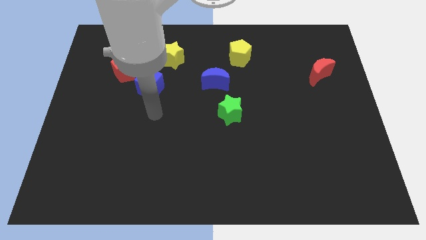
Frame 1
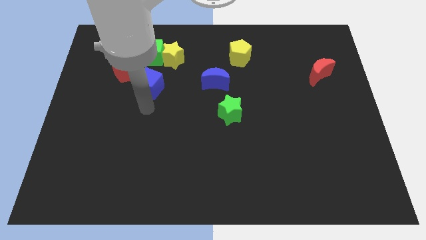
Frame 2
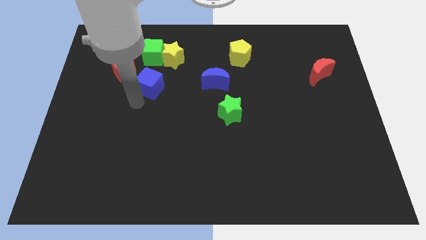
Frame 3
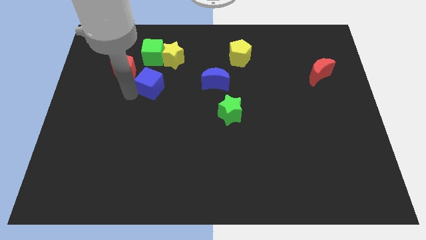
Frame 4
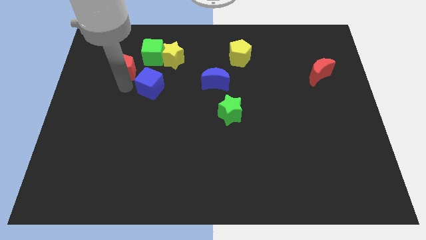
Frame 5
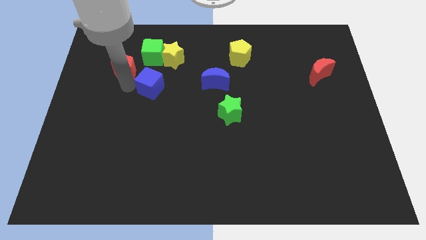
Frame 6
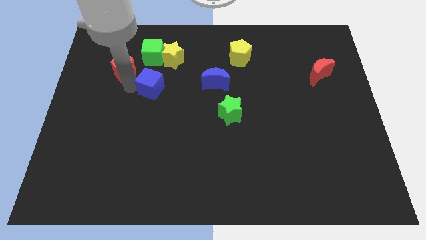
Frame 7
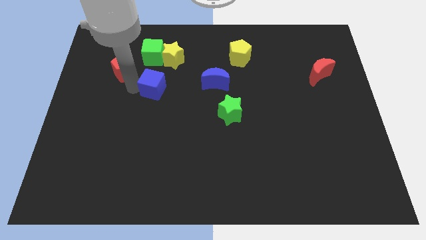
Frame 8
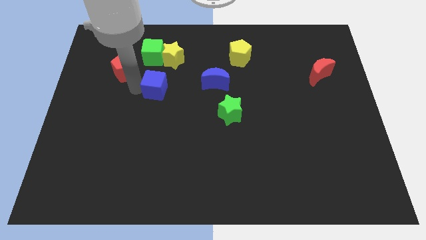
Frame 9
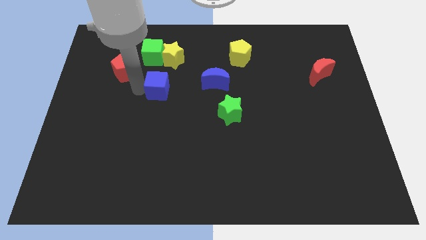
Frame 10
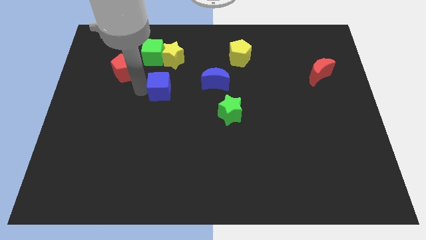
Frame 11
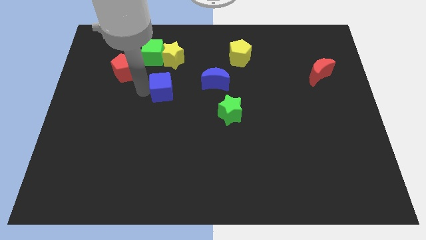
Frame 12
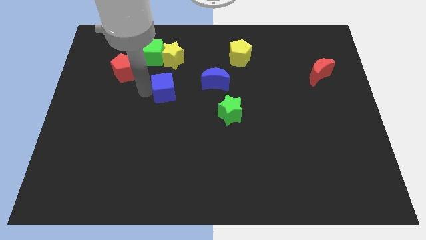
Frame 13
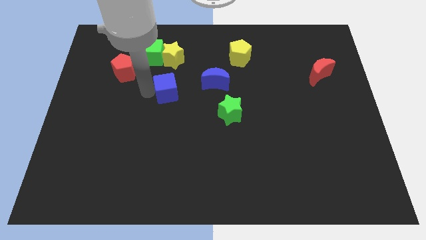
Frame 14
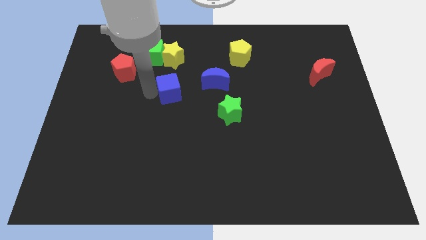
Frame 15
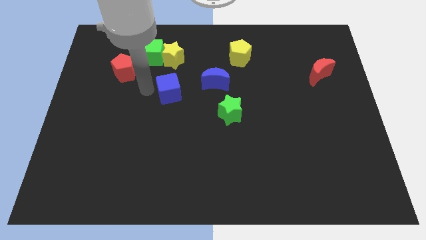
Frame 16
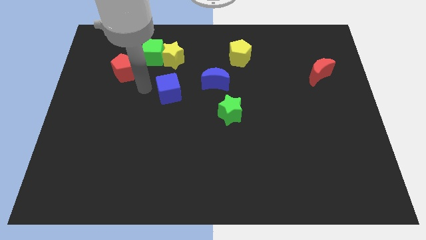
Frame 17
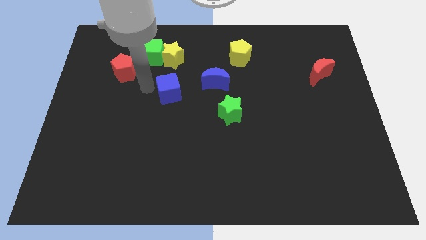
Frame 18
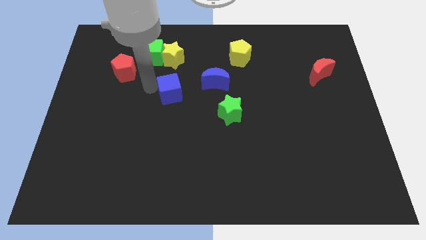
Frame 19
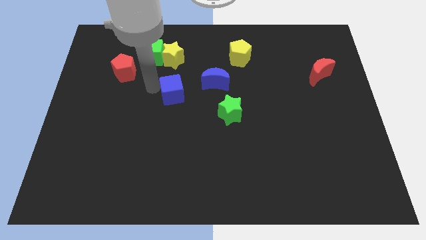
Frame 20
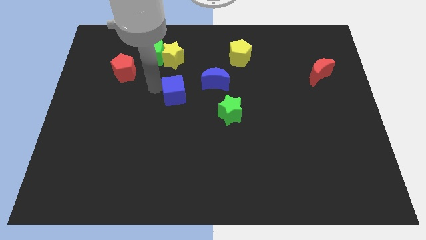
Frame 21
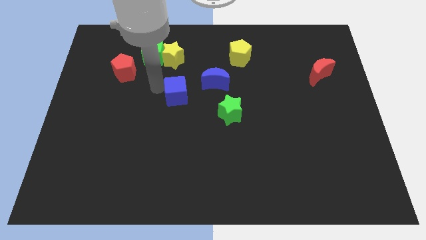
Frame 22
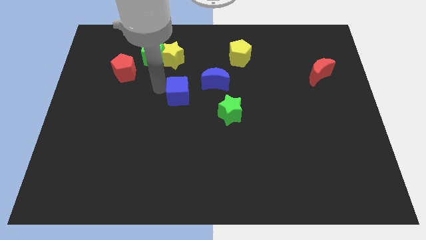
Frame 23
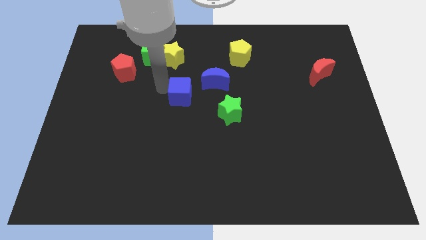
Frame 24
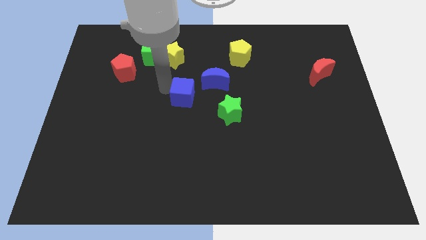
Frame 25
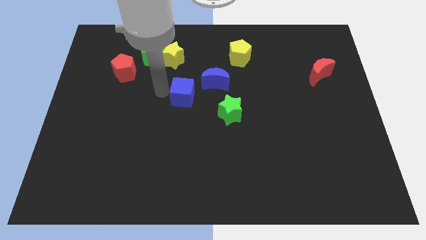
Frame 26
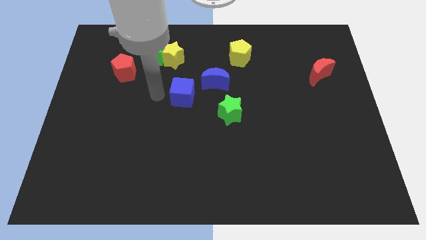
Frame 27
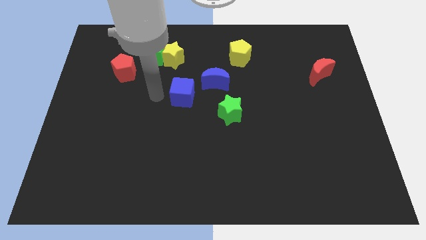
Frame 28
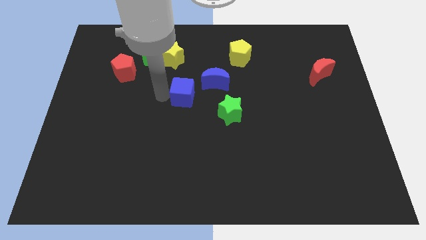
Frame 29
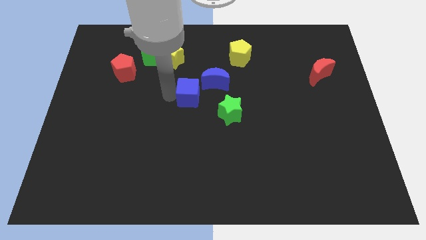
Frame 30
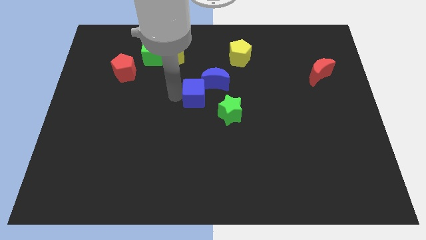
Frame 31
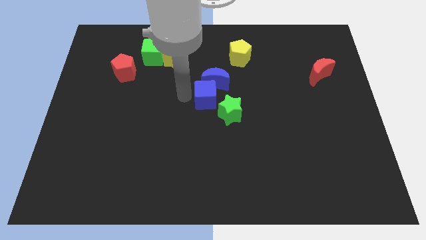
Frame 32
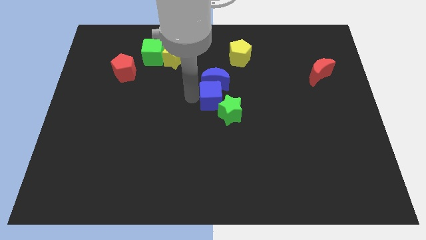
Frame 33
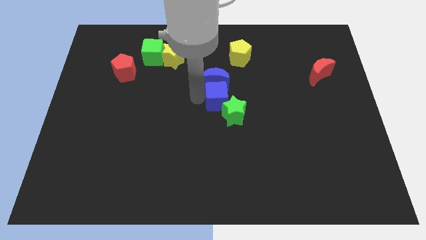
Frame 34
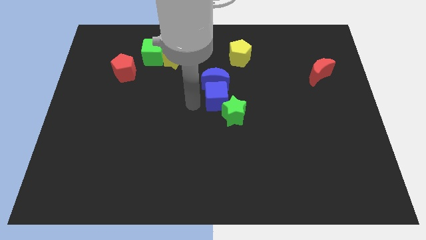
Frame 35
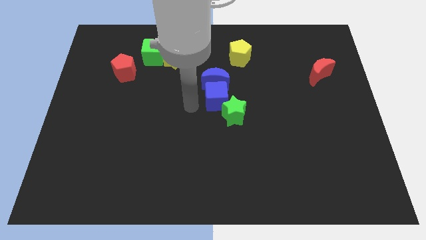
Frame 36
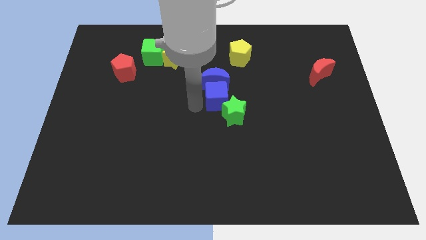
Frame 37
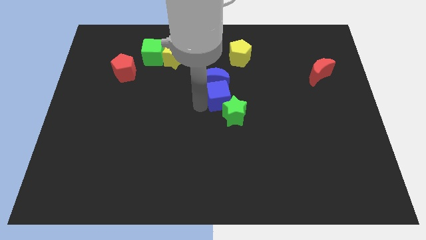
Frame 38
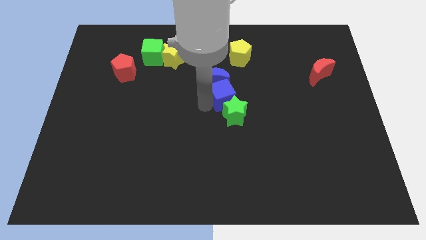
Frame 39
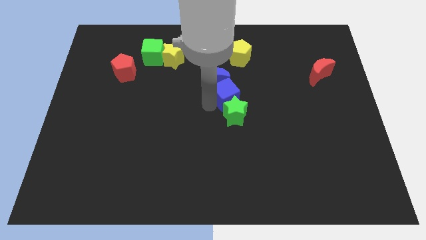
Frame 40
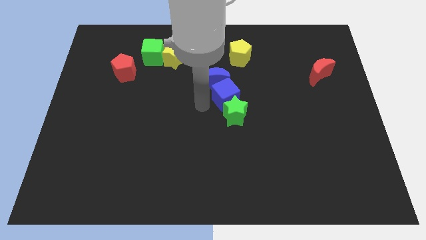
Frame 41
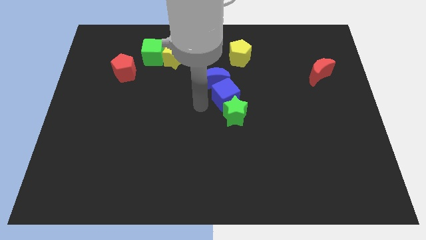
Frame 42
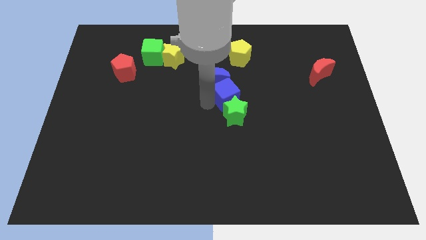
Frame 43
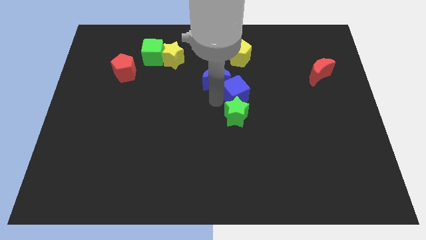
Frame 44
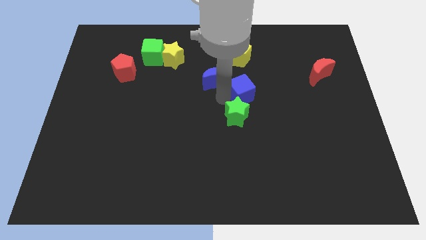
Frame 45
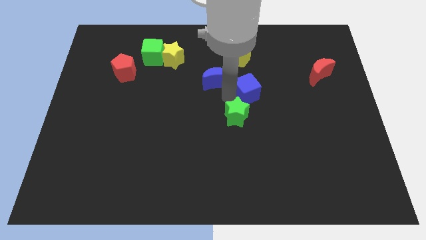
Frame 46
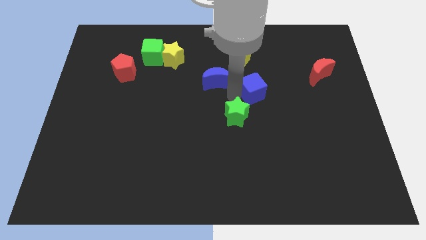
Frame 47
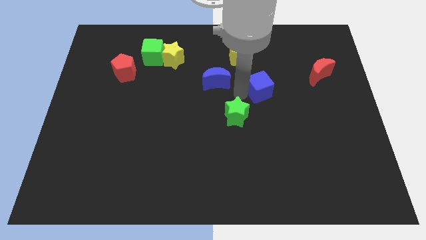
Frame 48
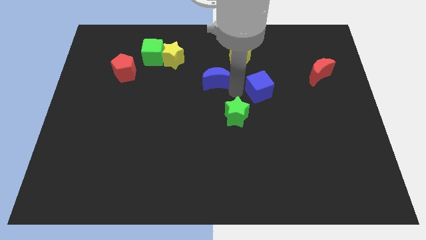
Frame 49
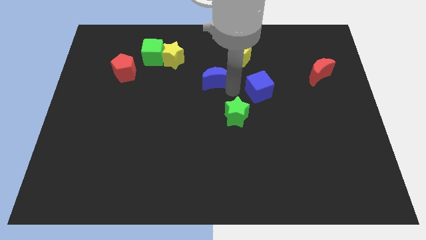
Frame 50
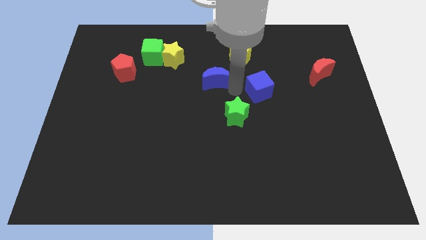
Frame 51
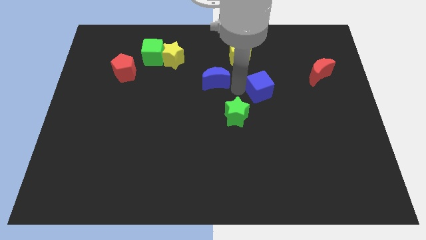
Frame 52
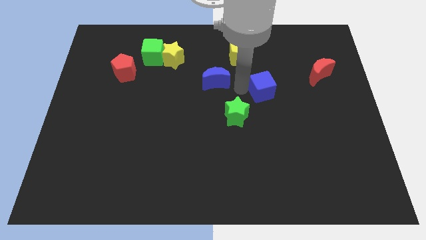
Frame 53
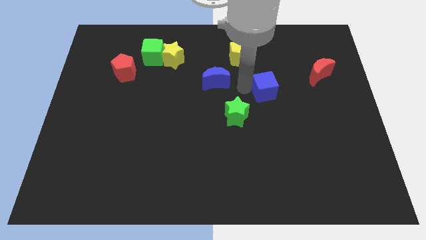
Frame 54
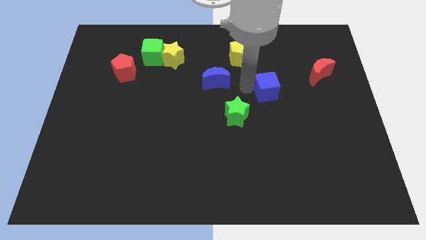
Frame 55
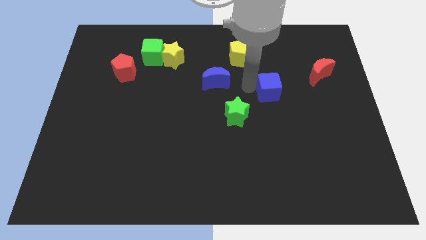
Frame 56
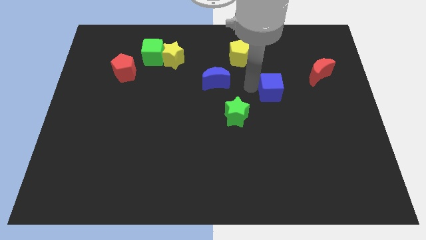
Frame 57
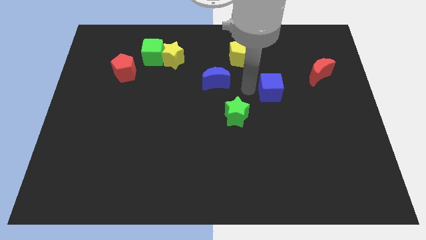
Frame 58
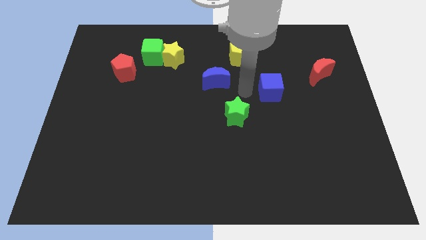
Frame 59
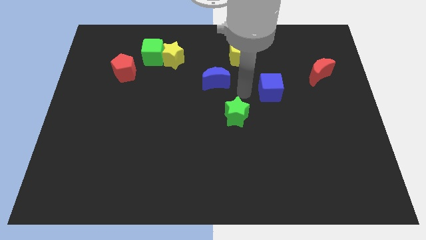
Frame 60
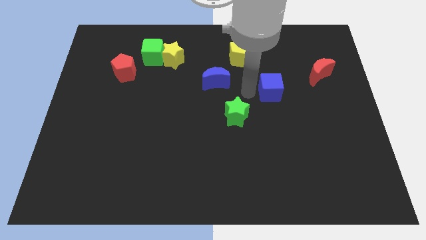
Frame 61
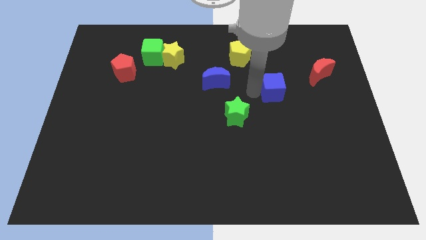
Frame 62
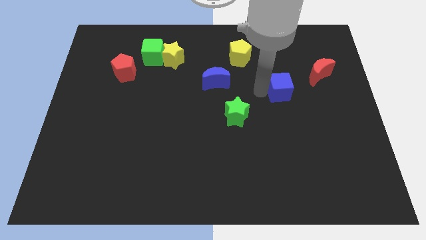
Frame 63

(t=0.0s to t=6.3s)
move the blue cube diagonally down and to the left of the red moon

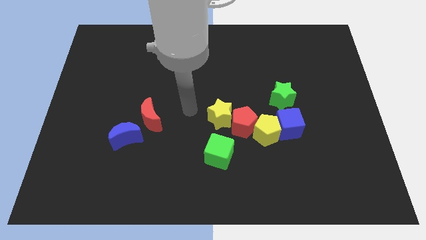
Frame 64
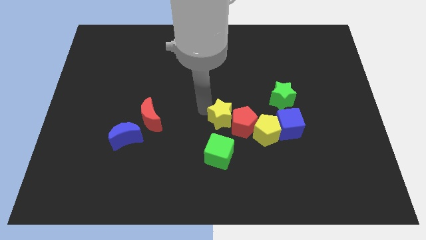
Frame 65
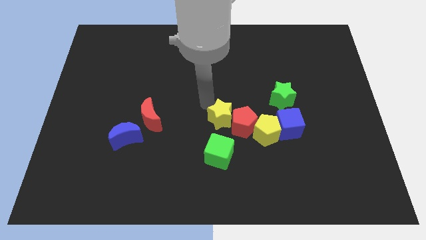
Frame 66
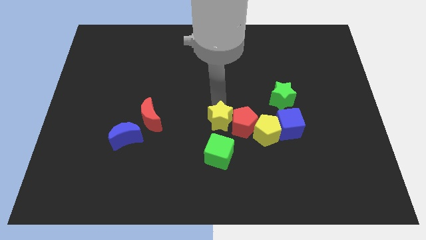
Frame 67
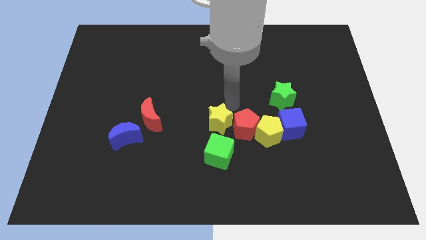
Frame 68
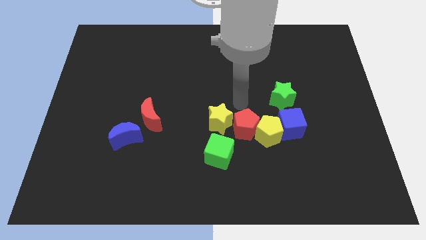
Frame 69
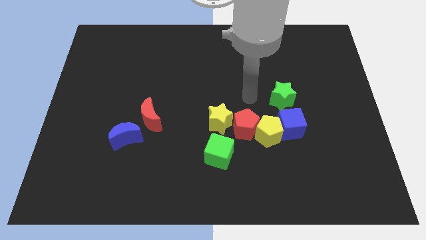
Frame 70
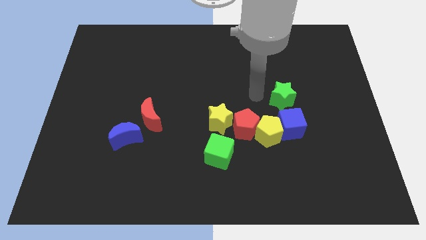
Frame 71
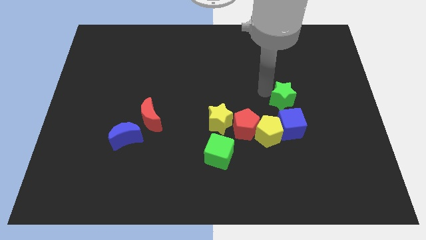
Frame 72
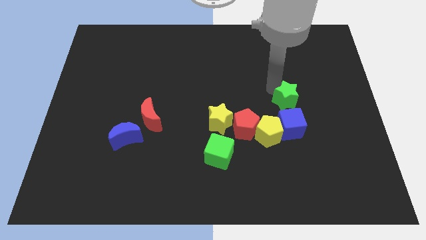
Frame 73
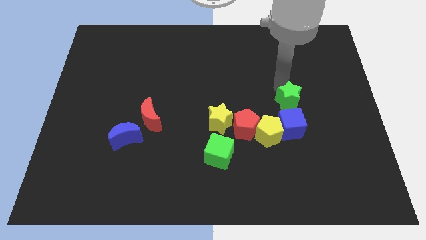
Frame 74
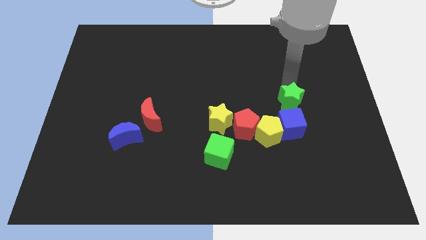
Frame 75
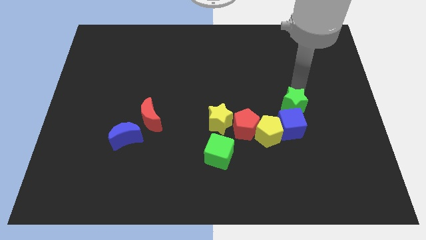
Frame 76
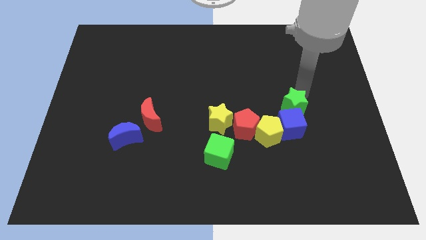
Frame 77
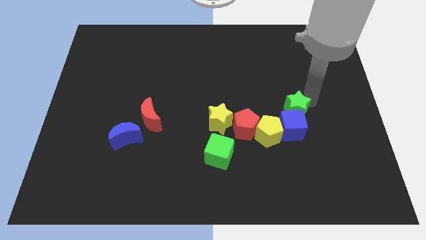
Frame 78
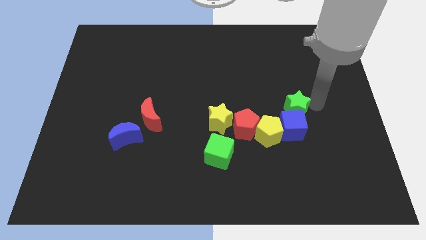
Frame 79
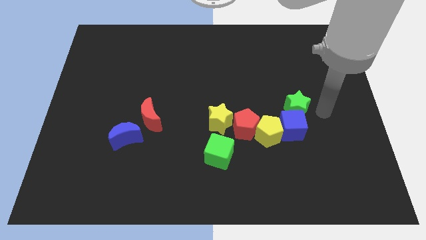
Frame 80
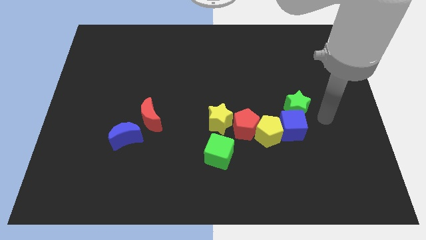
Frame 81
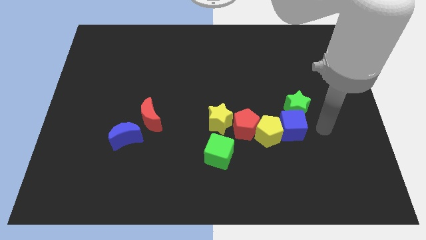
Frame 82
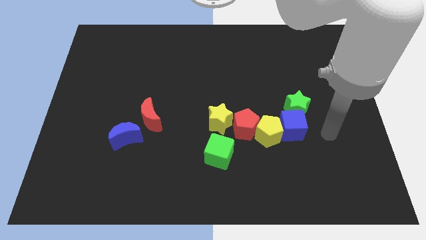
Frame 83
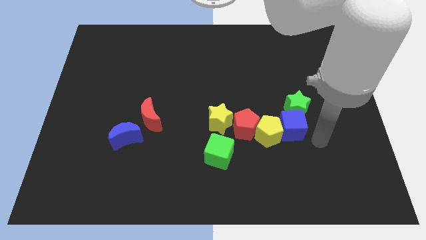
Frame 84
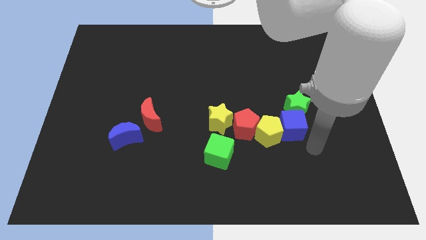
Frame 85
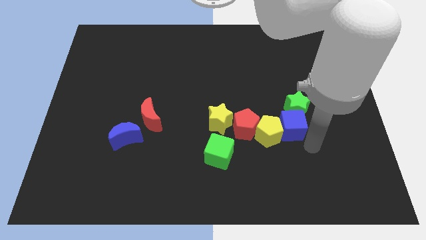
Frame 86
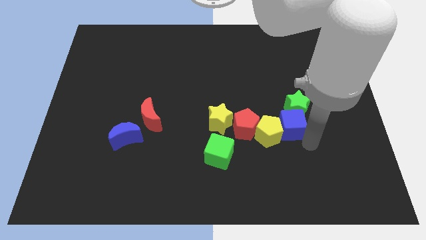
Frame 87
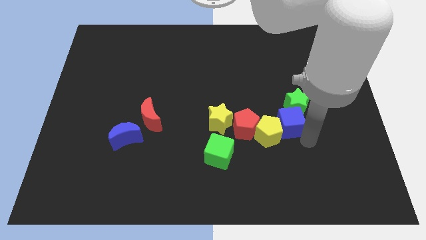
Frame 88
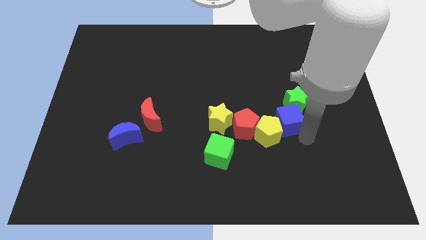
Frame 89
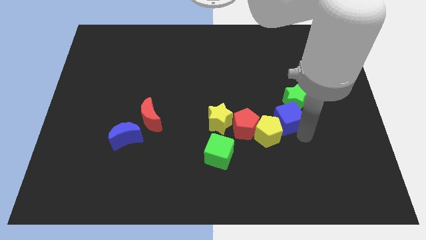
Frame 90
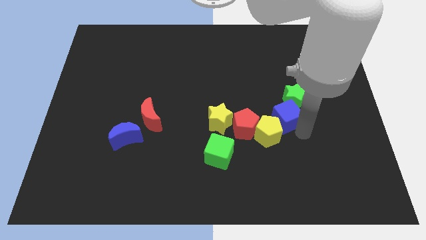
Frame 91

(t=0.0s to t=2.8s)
move the blue cube to the top side of the yellow pentagon
